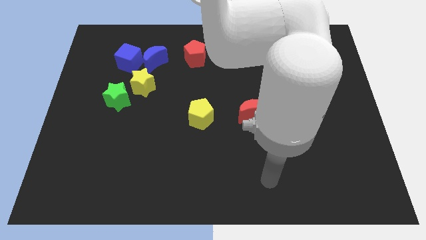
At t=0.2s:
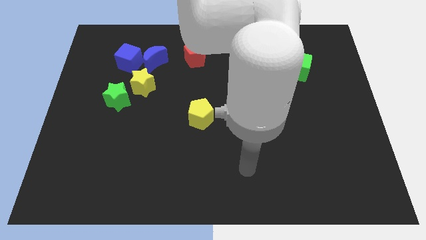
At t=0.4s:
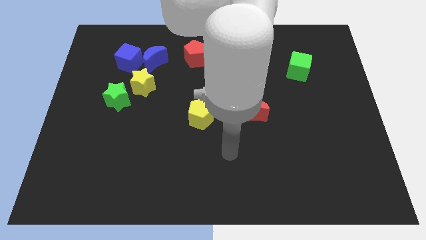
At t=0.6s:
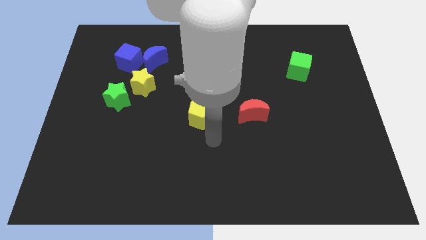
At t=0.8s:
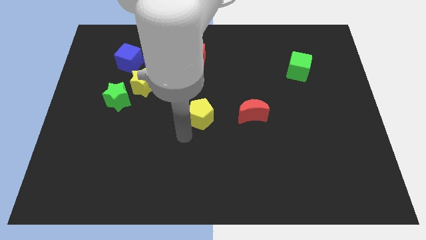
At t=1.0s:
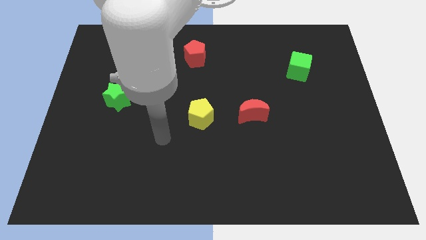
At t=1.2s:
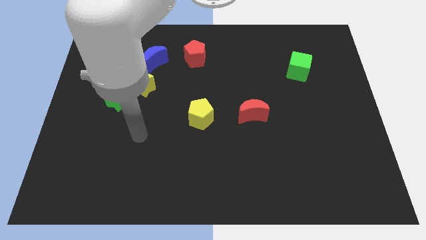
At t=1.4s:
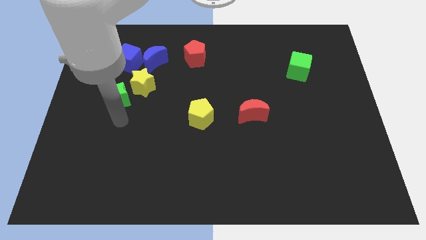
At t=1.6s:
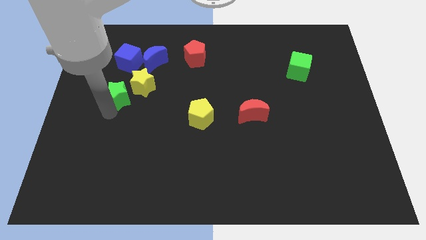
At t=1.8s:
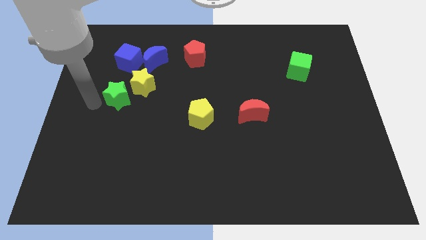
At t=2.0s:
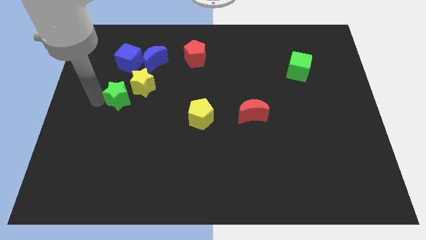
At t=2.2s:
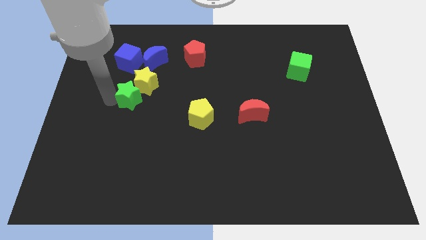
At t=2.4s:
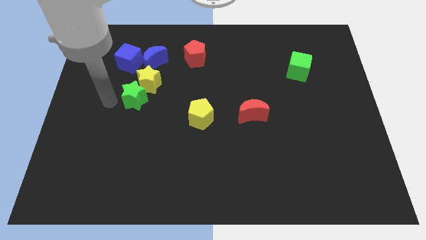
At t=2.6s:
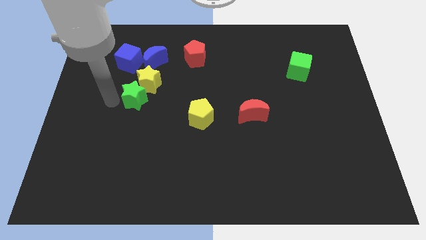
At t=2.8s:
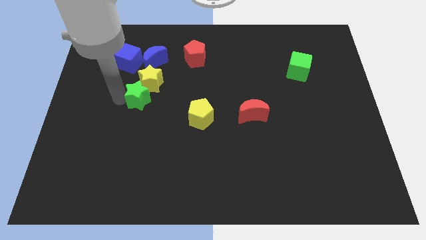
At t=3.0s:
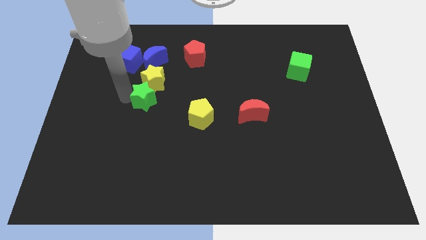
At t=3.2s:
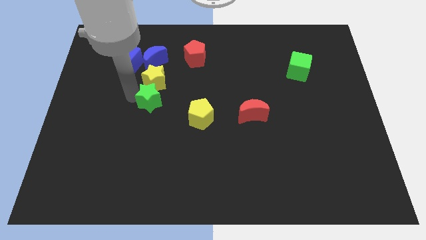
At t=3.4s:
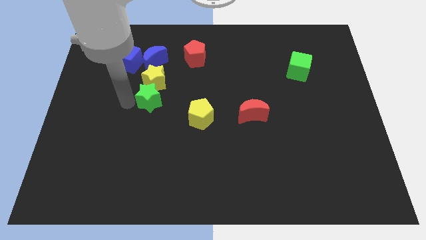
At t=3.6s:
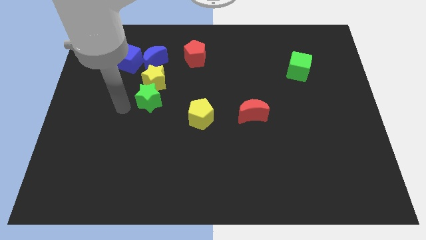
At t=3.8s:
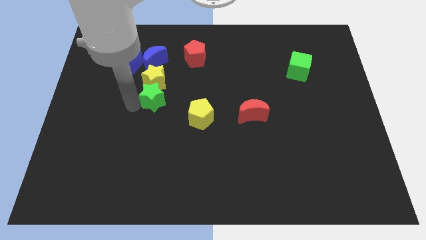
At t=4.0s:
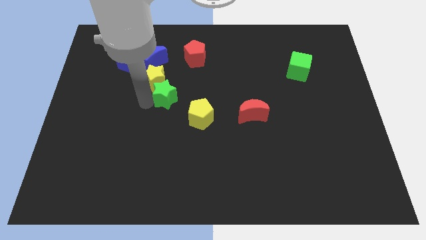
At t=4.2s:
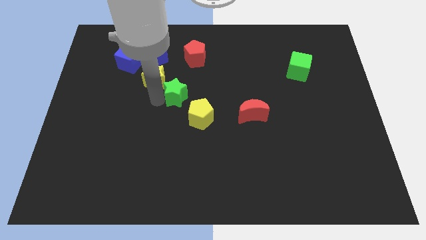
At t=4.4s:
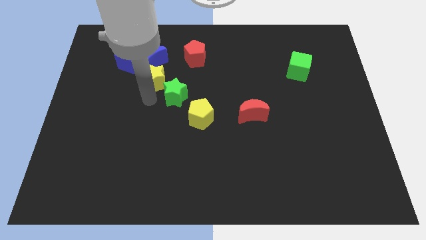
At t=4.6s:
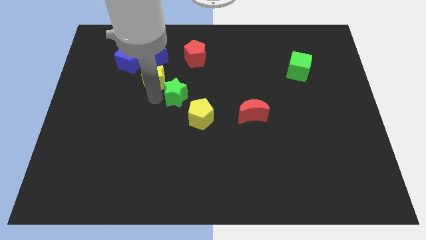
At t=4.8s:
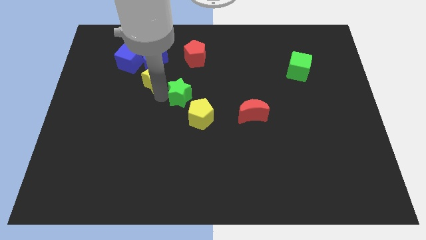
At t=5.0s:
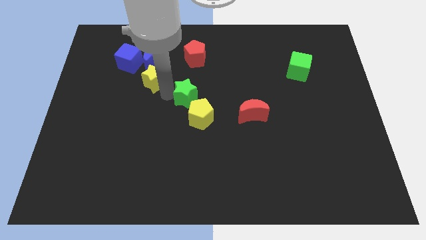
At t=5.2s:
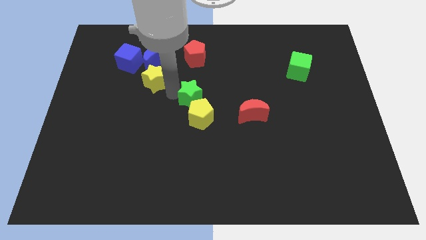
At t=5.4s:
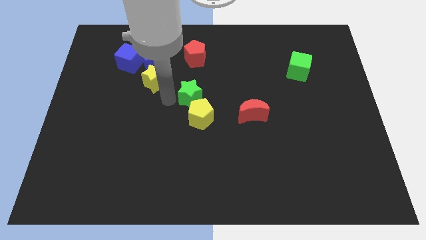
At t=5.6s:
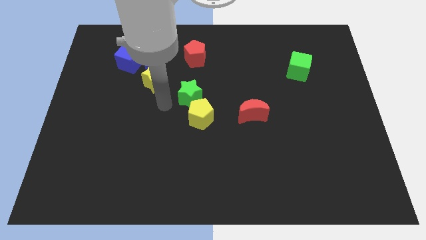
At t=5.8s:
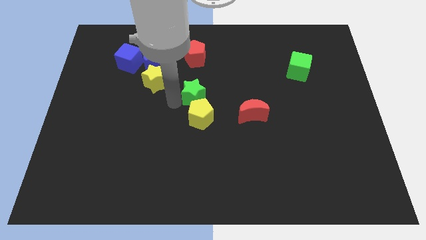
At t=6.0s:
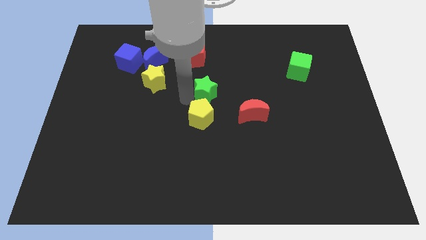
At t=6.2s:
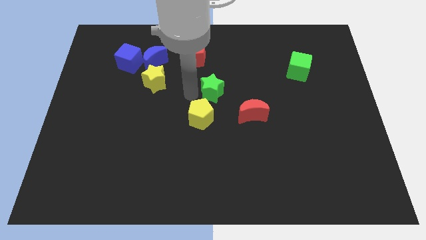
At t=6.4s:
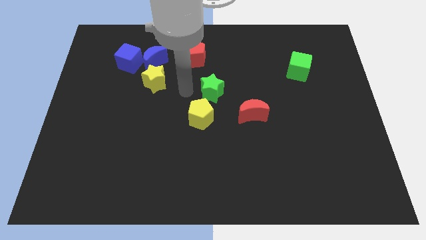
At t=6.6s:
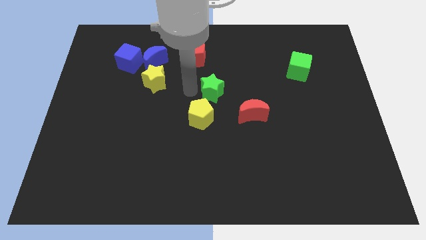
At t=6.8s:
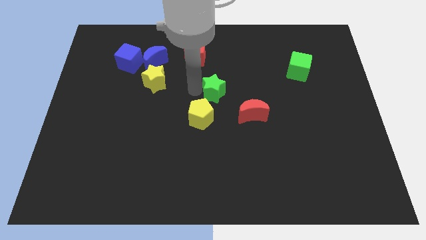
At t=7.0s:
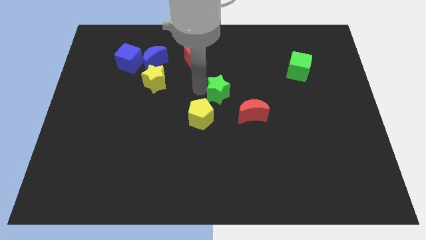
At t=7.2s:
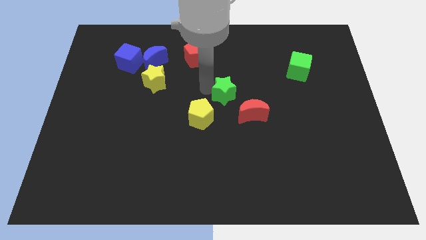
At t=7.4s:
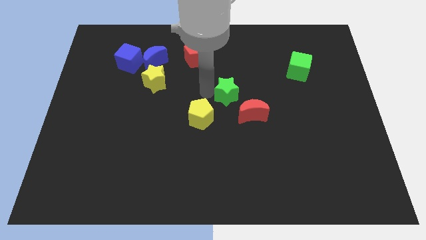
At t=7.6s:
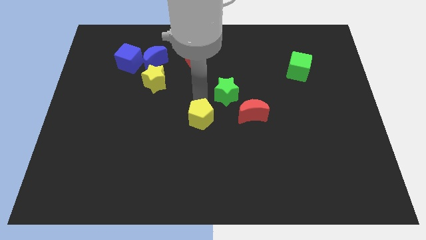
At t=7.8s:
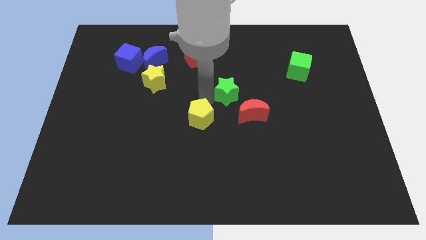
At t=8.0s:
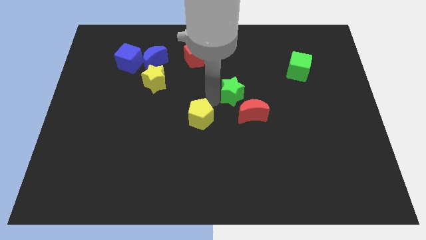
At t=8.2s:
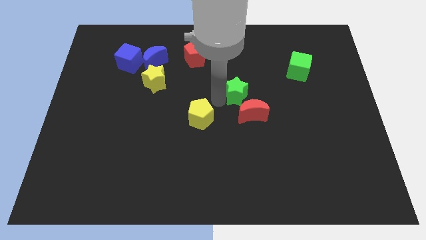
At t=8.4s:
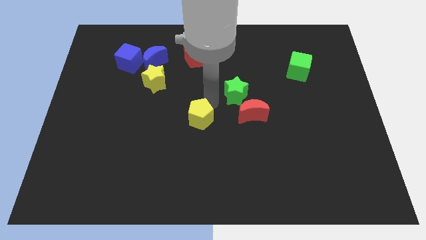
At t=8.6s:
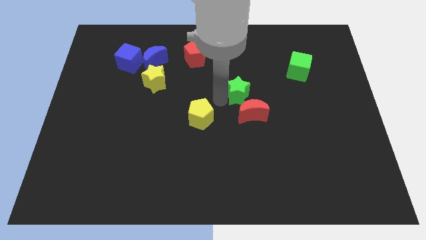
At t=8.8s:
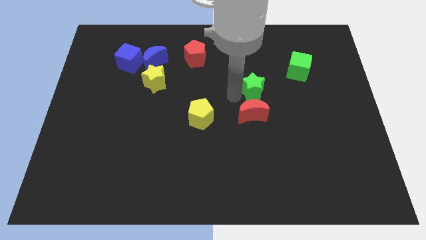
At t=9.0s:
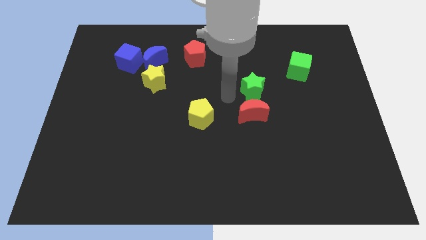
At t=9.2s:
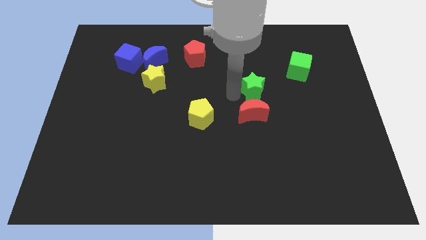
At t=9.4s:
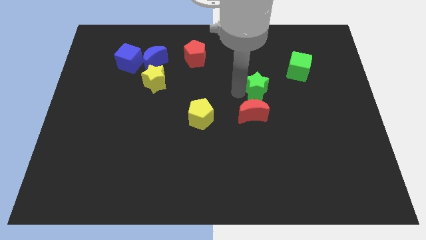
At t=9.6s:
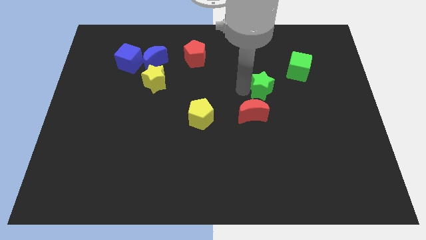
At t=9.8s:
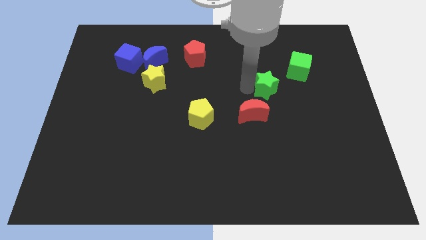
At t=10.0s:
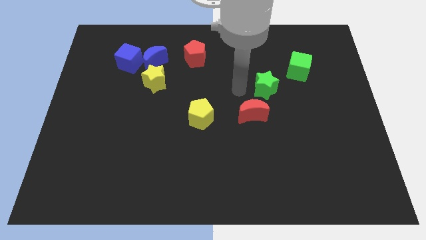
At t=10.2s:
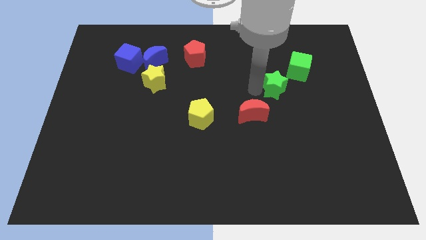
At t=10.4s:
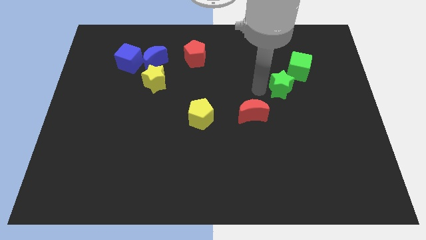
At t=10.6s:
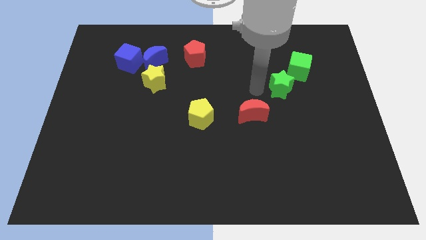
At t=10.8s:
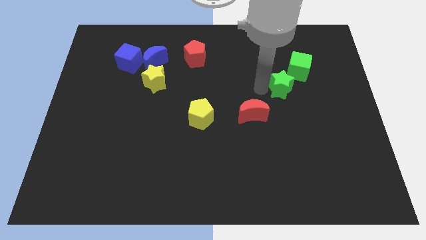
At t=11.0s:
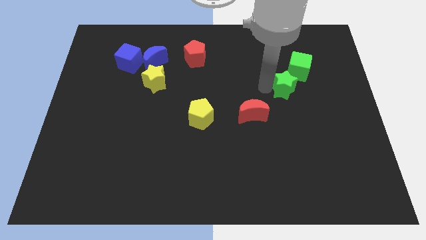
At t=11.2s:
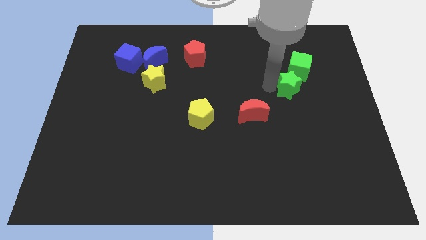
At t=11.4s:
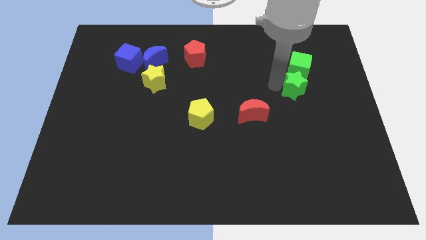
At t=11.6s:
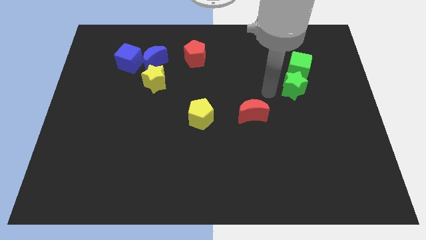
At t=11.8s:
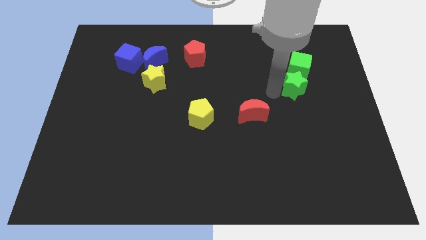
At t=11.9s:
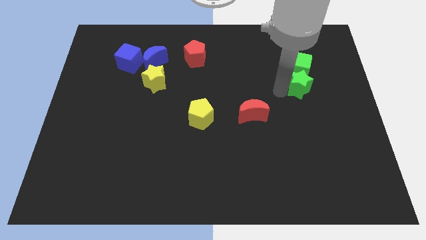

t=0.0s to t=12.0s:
slide the green star to the bottom right of the green cube

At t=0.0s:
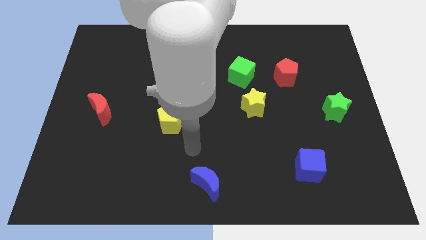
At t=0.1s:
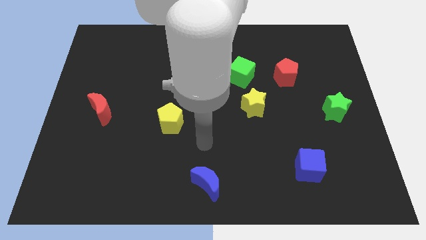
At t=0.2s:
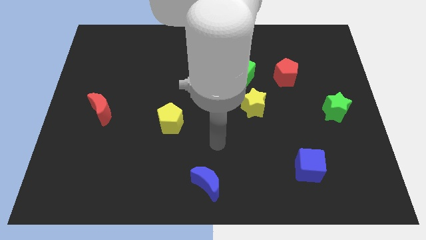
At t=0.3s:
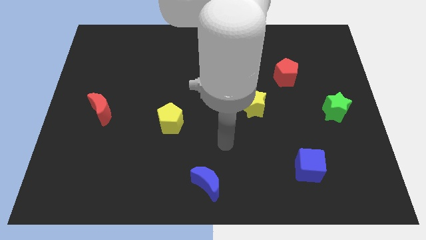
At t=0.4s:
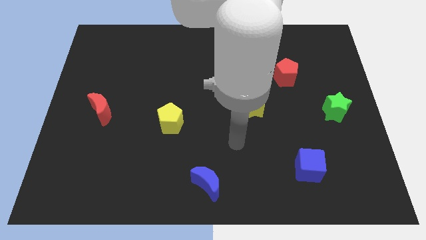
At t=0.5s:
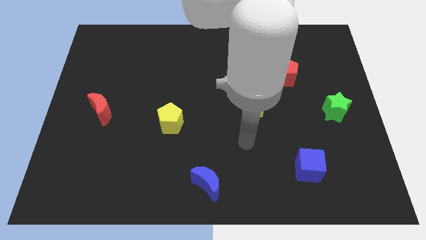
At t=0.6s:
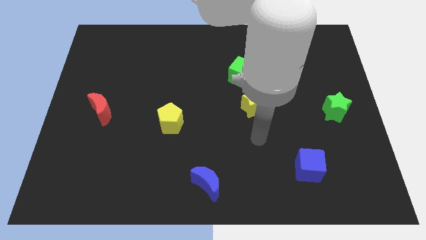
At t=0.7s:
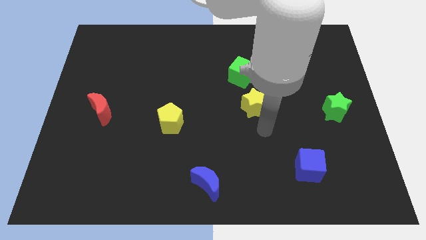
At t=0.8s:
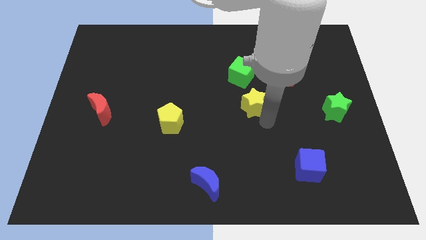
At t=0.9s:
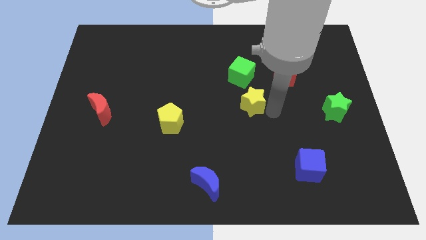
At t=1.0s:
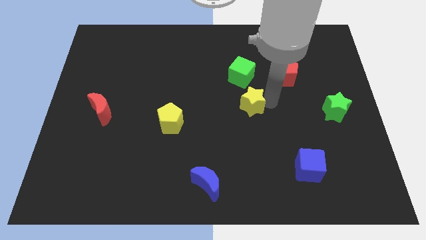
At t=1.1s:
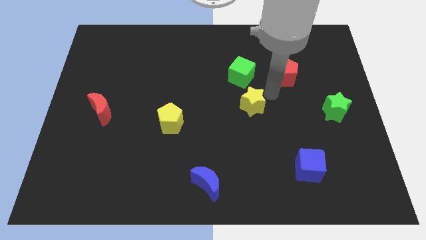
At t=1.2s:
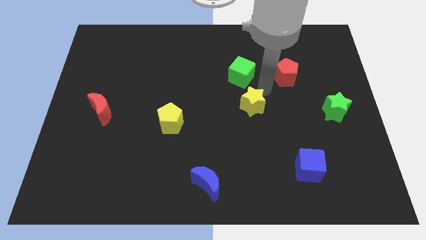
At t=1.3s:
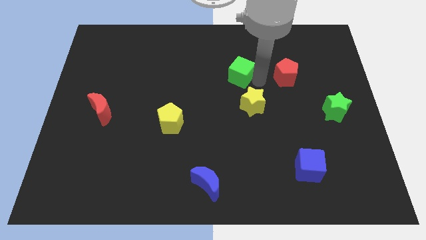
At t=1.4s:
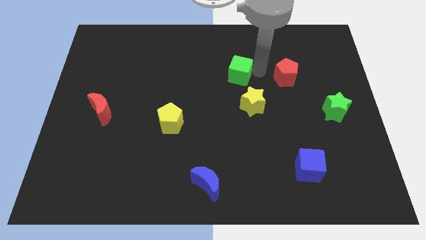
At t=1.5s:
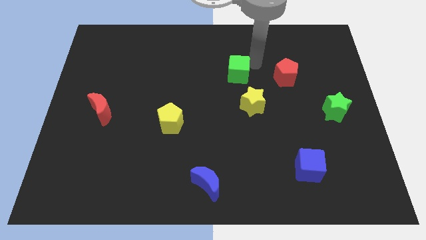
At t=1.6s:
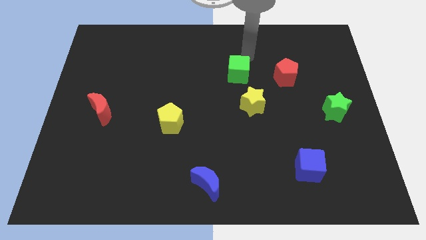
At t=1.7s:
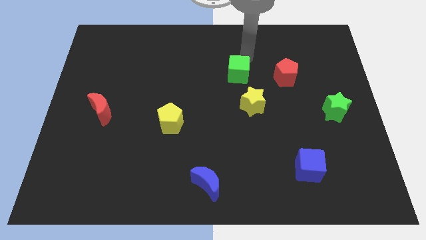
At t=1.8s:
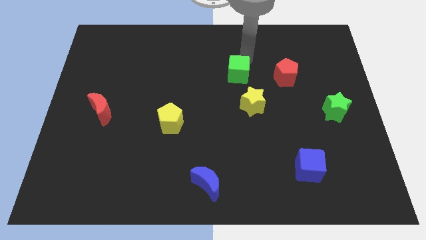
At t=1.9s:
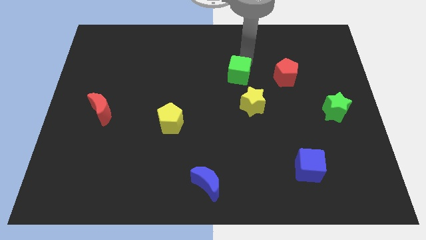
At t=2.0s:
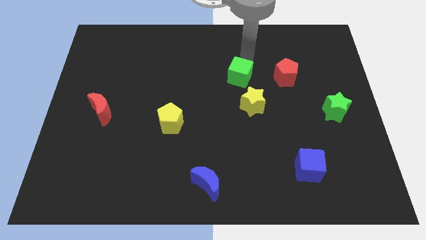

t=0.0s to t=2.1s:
push the green cube to the top left side of the yellow star
